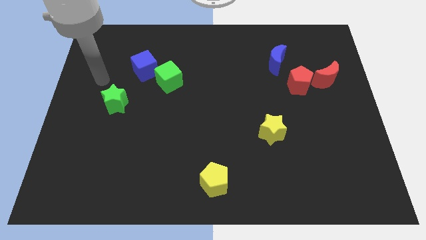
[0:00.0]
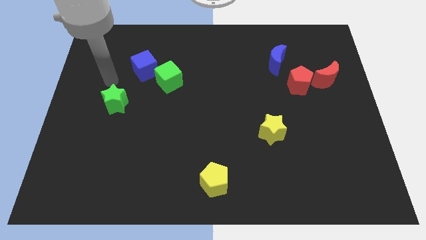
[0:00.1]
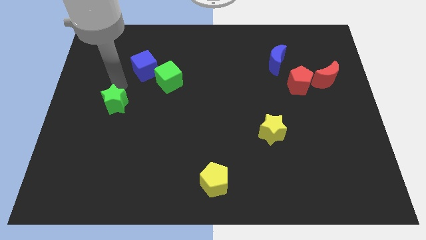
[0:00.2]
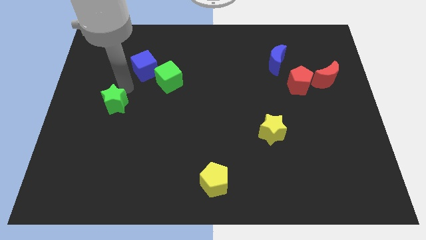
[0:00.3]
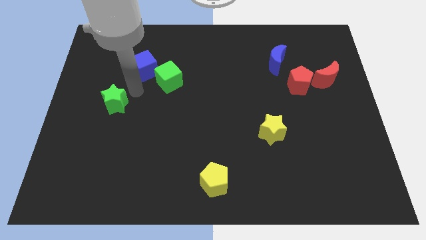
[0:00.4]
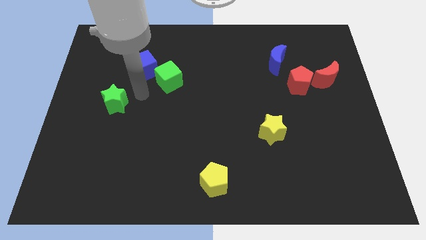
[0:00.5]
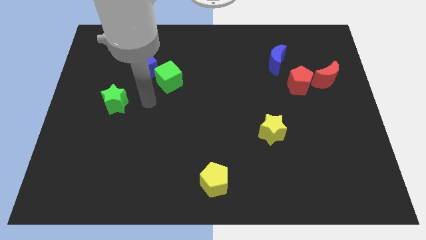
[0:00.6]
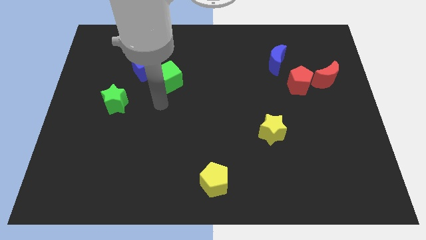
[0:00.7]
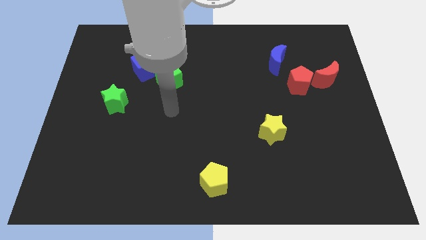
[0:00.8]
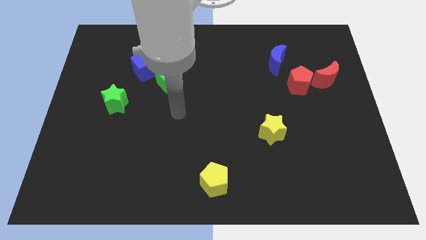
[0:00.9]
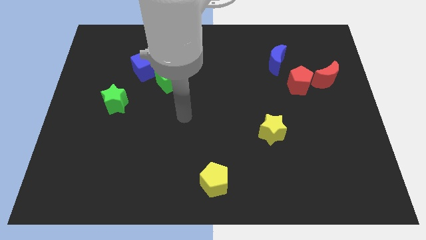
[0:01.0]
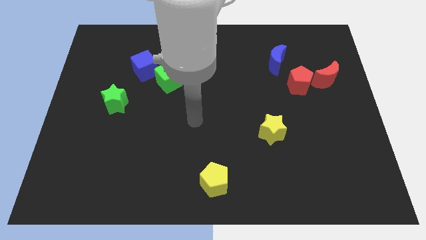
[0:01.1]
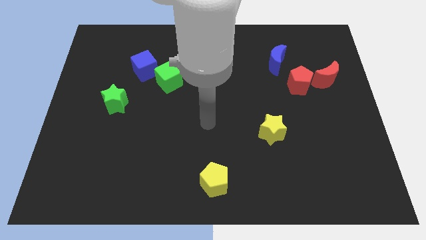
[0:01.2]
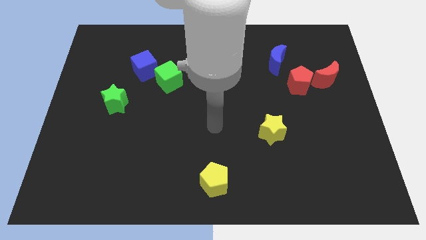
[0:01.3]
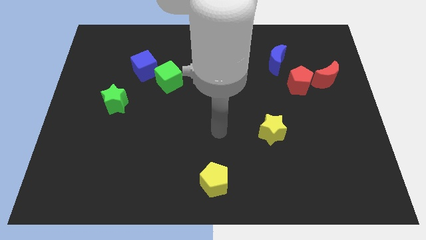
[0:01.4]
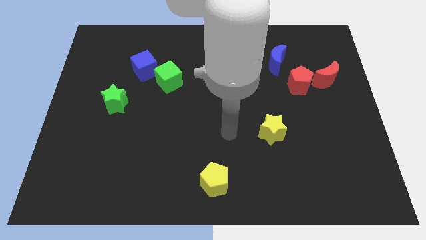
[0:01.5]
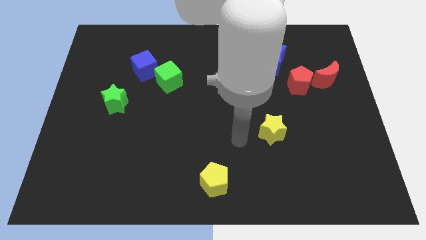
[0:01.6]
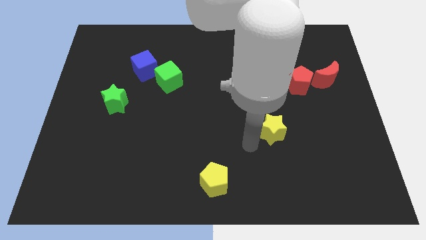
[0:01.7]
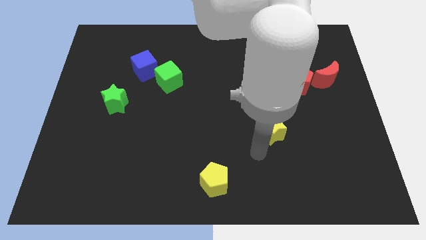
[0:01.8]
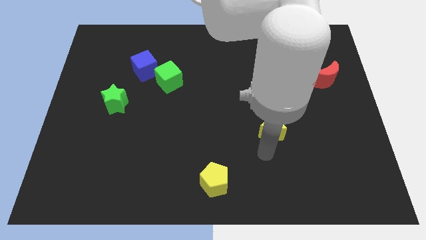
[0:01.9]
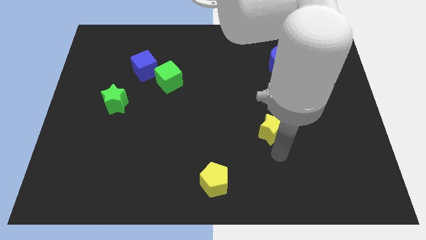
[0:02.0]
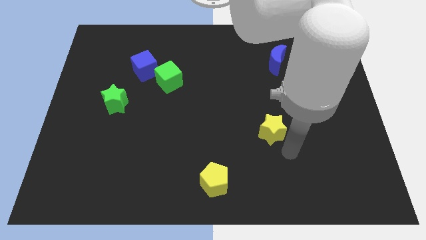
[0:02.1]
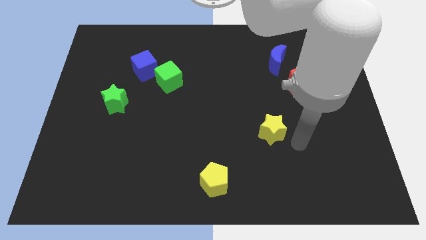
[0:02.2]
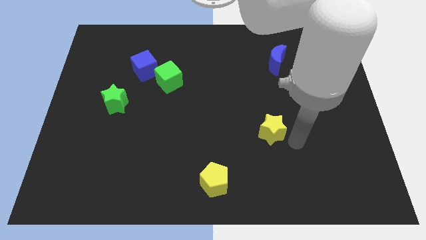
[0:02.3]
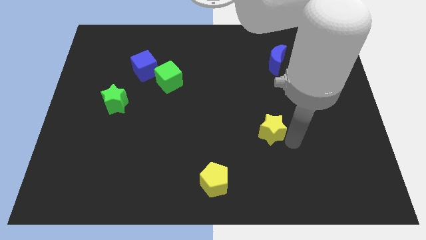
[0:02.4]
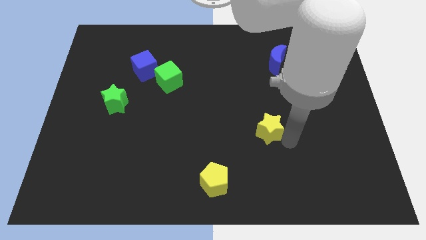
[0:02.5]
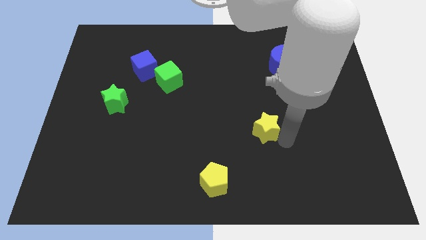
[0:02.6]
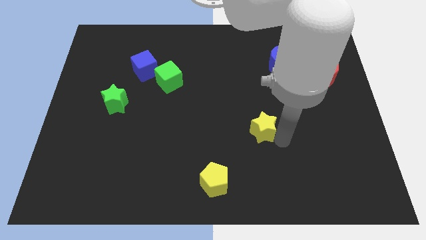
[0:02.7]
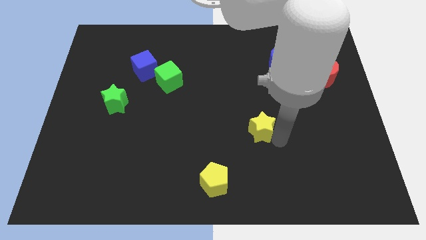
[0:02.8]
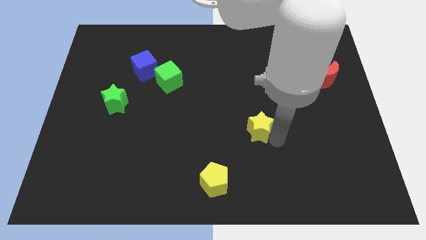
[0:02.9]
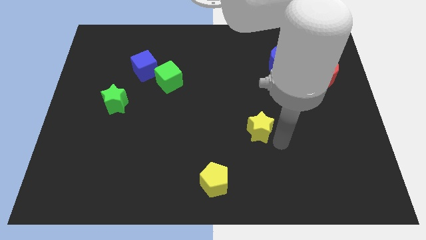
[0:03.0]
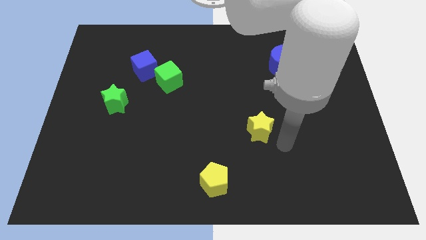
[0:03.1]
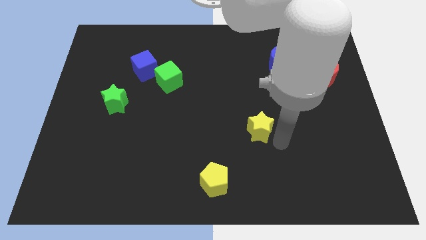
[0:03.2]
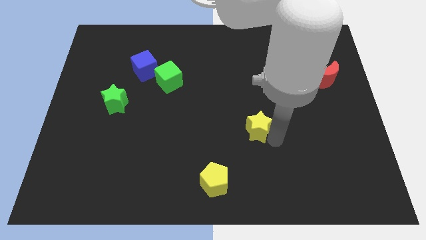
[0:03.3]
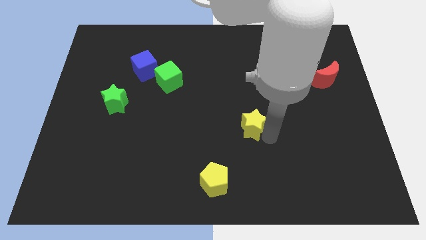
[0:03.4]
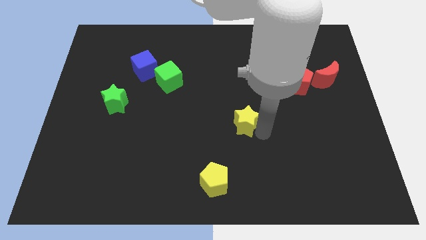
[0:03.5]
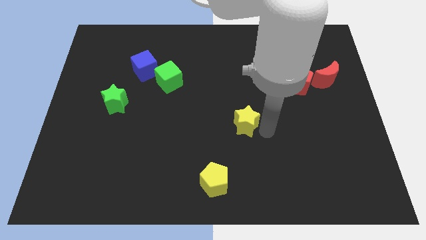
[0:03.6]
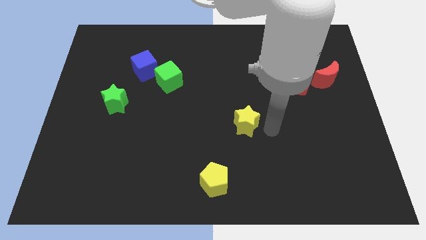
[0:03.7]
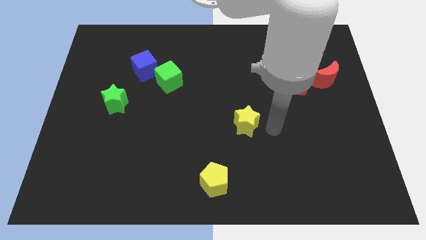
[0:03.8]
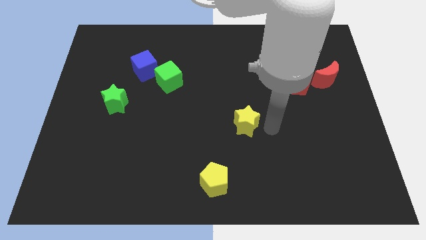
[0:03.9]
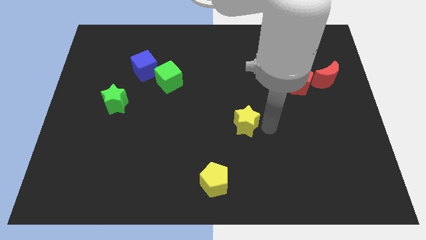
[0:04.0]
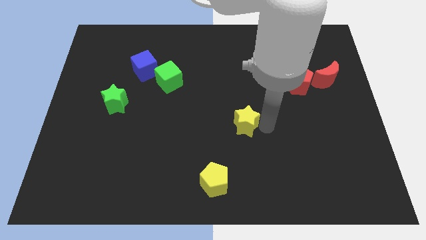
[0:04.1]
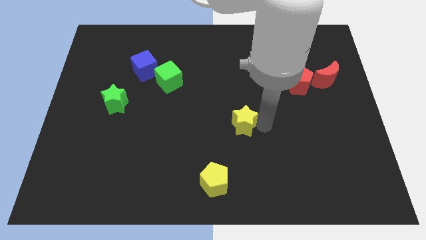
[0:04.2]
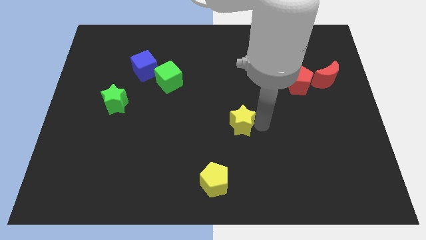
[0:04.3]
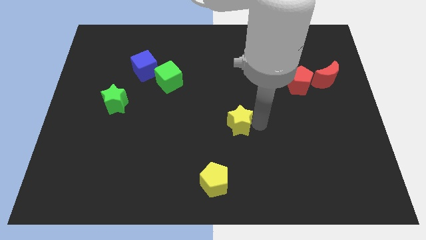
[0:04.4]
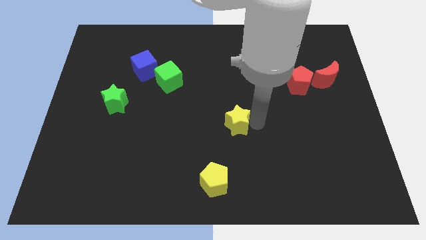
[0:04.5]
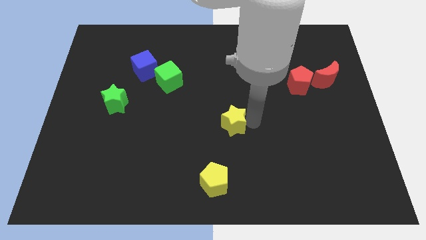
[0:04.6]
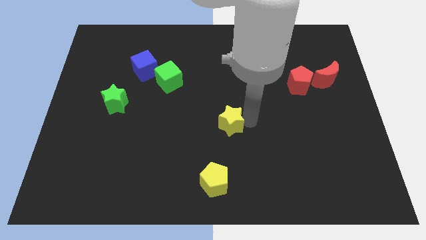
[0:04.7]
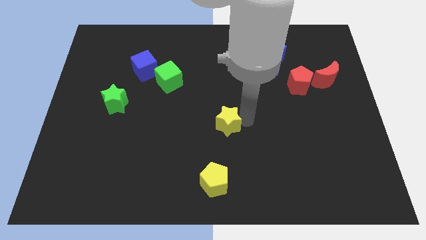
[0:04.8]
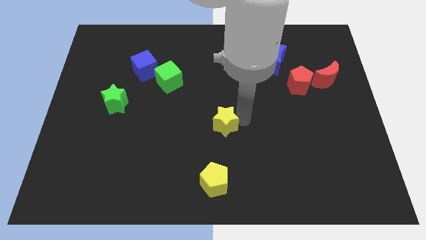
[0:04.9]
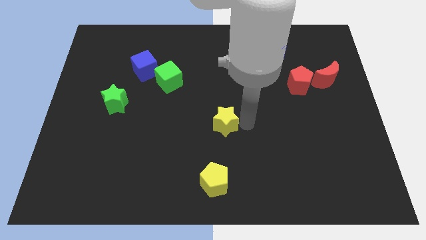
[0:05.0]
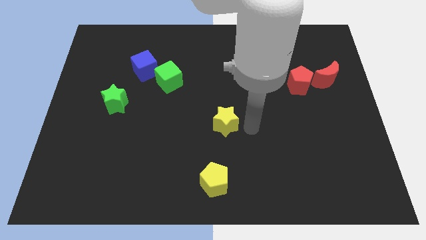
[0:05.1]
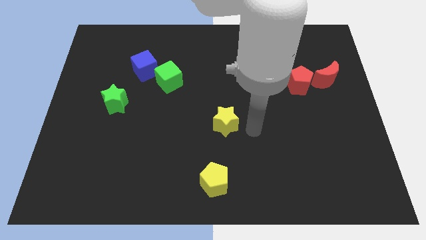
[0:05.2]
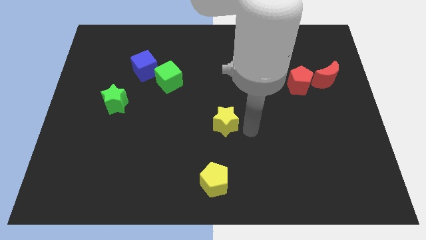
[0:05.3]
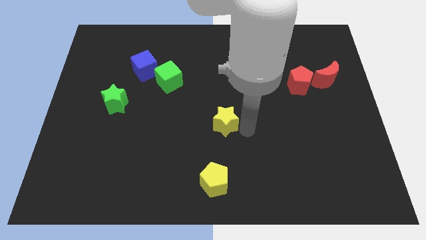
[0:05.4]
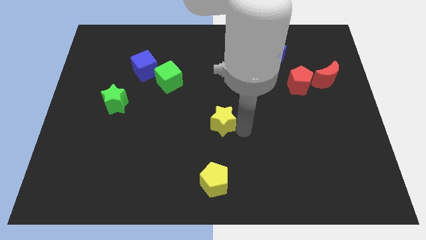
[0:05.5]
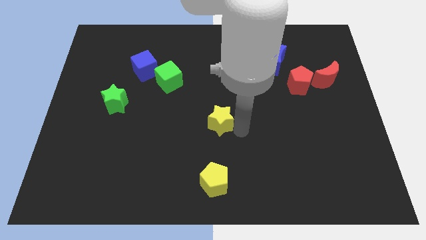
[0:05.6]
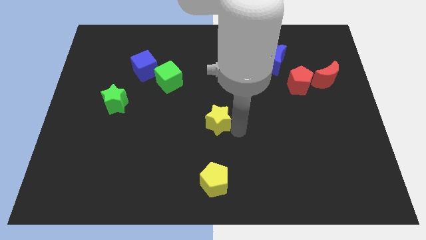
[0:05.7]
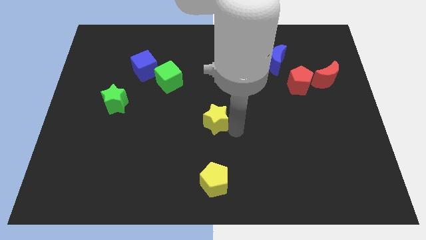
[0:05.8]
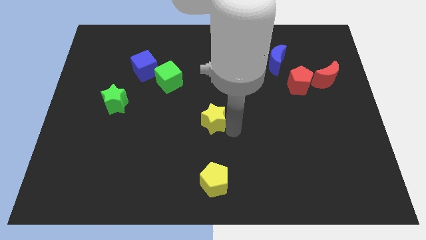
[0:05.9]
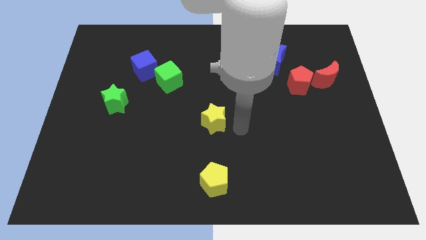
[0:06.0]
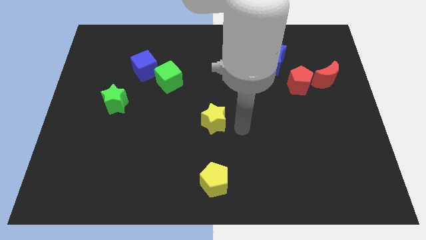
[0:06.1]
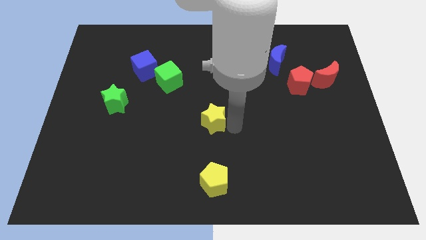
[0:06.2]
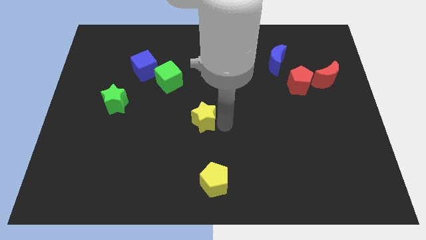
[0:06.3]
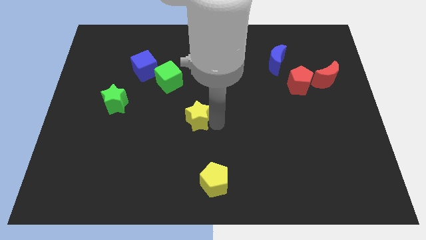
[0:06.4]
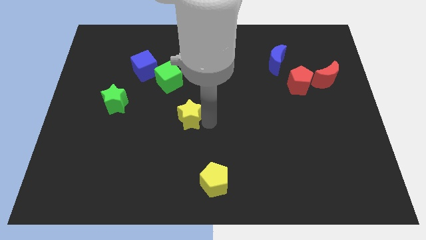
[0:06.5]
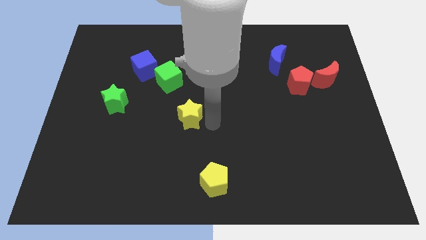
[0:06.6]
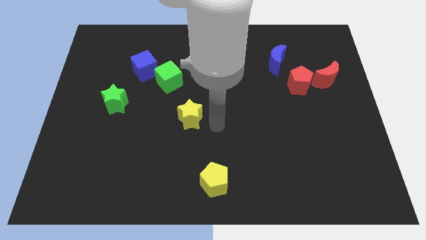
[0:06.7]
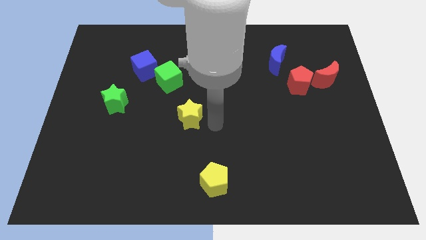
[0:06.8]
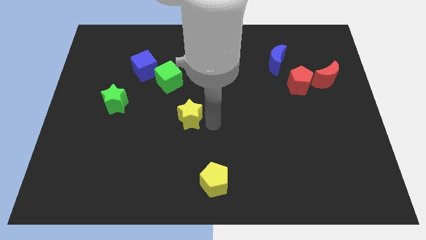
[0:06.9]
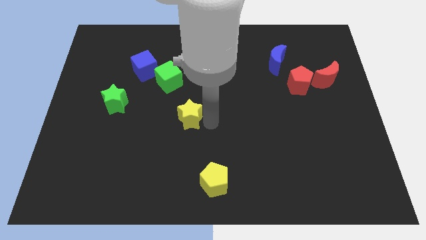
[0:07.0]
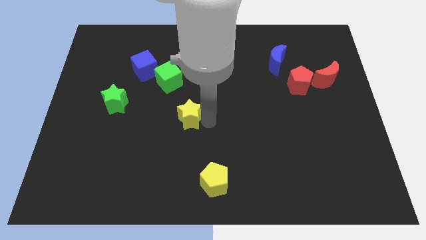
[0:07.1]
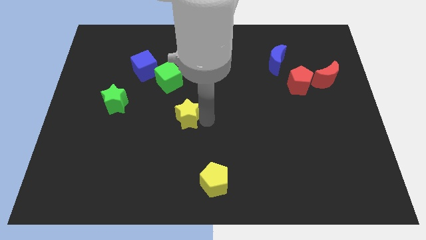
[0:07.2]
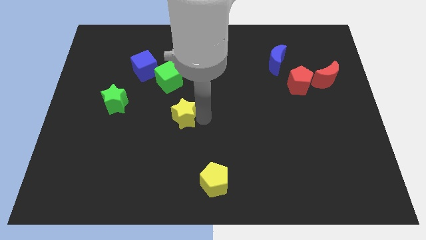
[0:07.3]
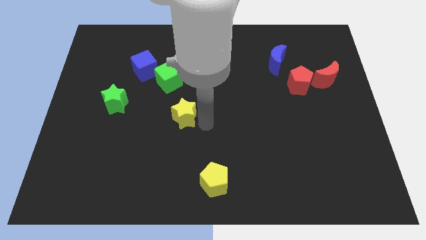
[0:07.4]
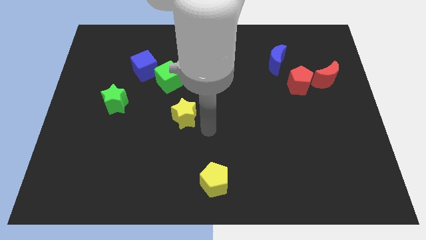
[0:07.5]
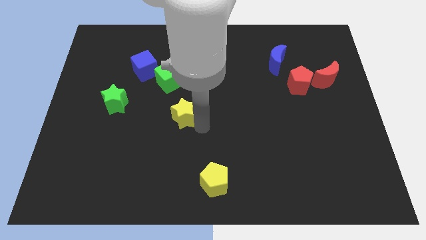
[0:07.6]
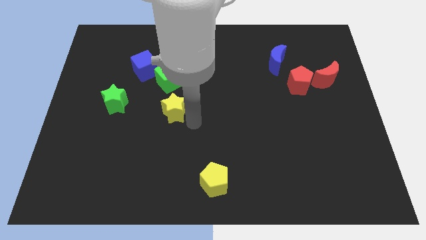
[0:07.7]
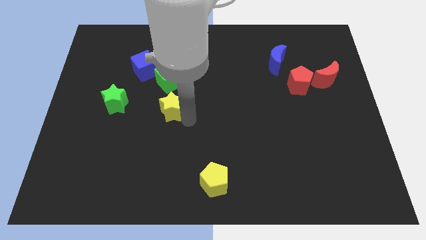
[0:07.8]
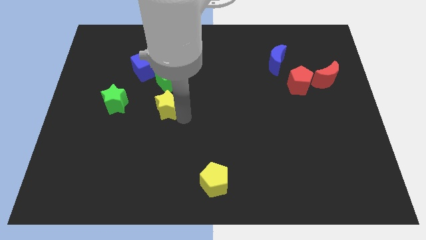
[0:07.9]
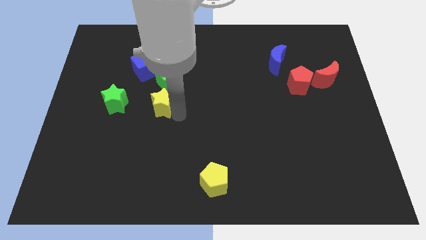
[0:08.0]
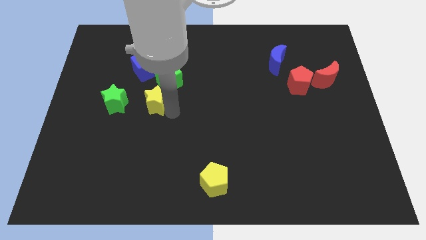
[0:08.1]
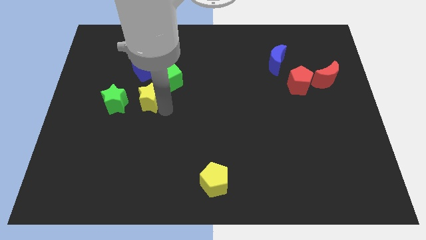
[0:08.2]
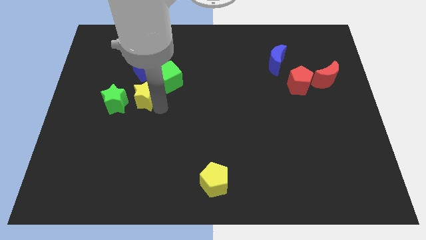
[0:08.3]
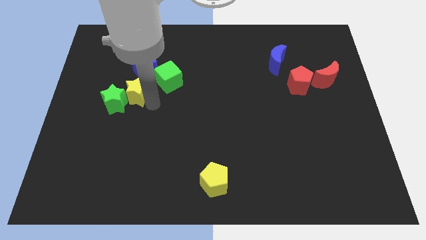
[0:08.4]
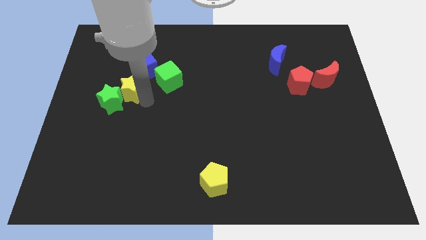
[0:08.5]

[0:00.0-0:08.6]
put the yellow star diagonally down and to the left of the blue cube
